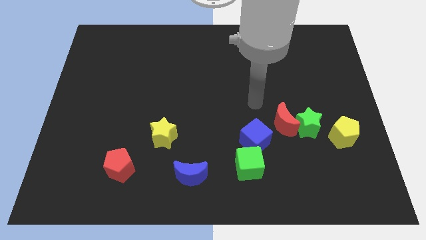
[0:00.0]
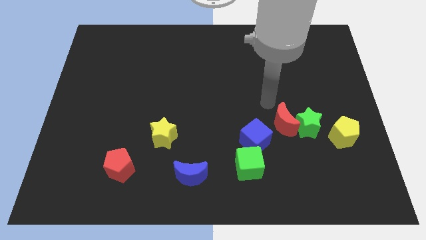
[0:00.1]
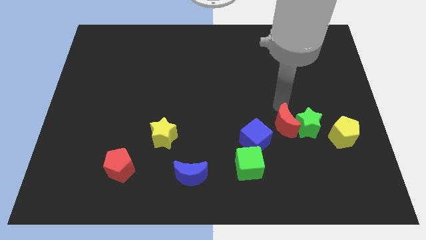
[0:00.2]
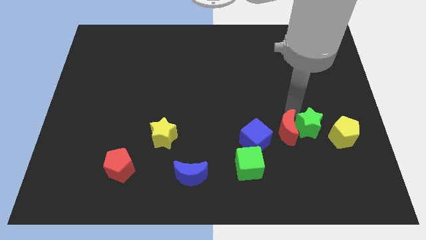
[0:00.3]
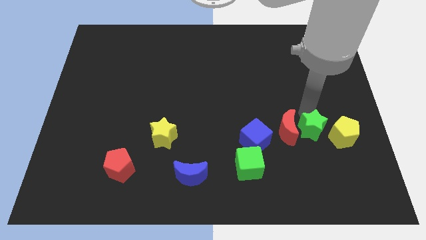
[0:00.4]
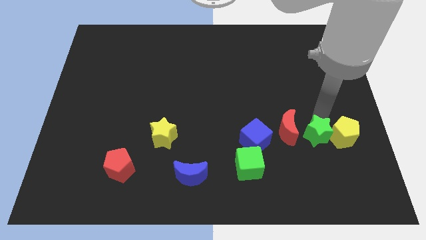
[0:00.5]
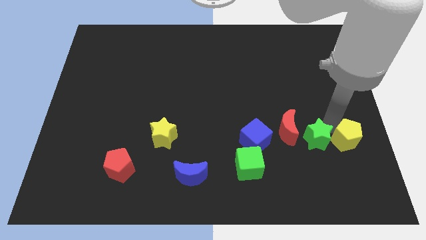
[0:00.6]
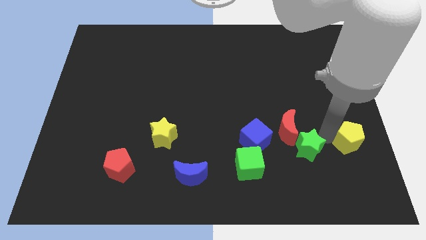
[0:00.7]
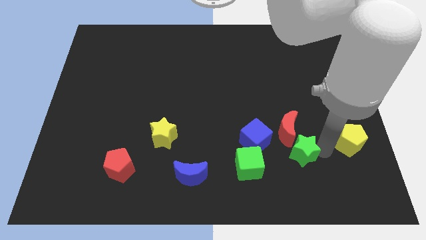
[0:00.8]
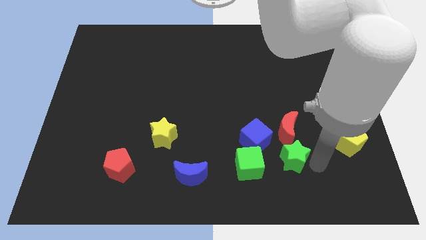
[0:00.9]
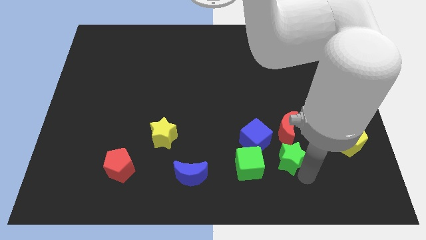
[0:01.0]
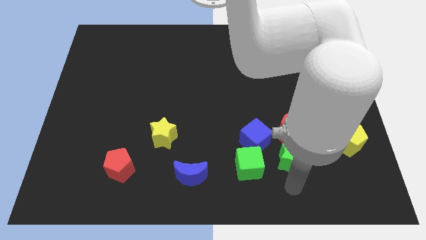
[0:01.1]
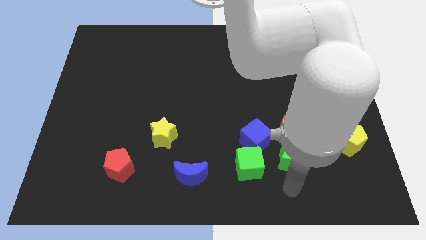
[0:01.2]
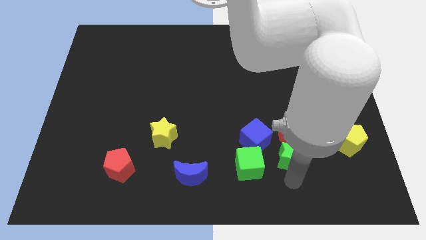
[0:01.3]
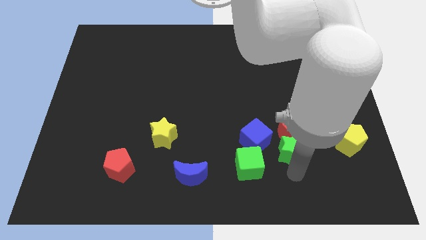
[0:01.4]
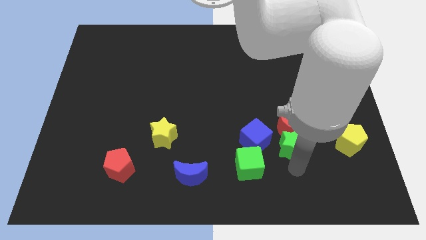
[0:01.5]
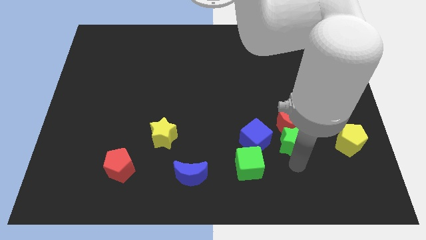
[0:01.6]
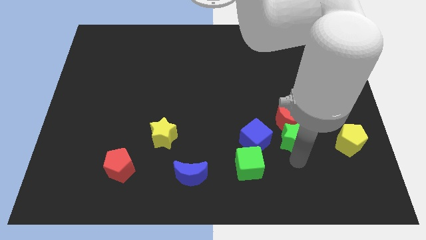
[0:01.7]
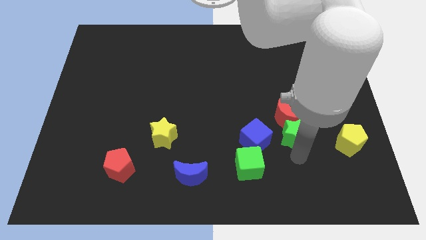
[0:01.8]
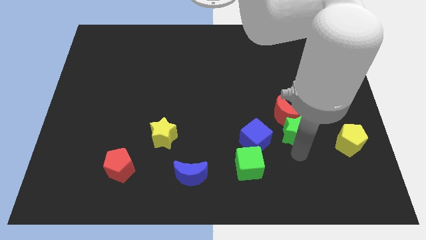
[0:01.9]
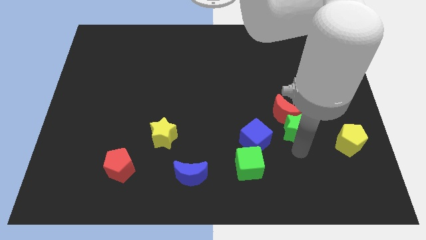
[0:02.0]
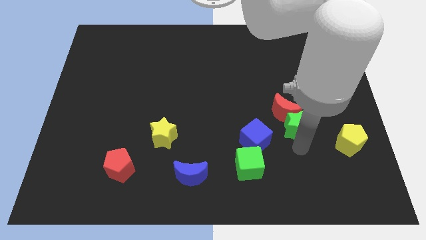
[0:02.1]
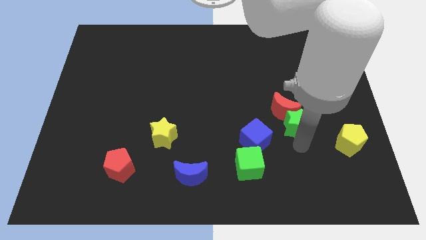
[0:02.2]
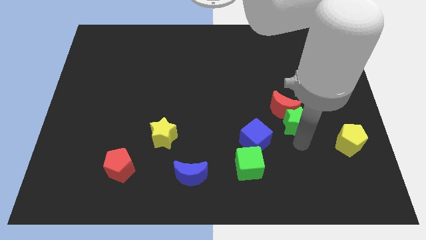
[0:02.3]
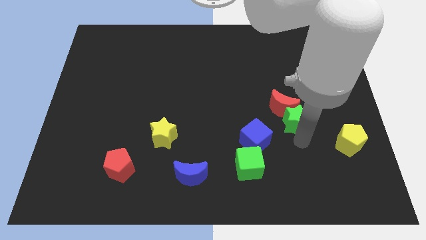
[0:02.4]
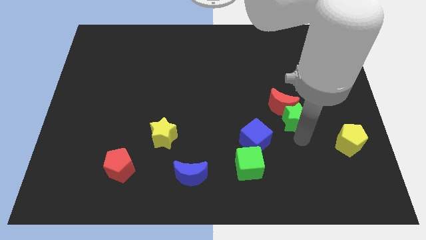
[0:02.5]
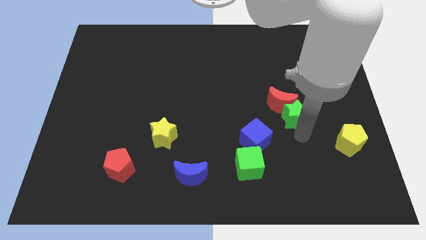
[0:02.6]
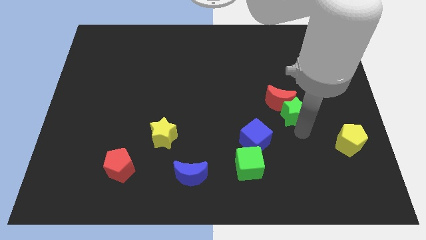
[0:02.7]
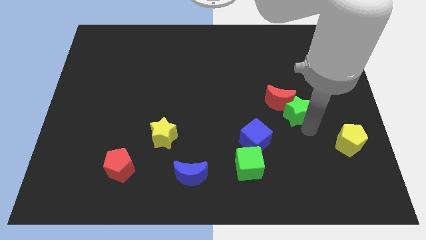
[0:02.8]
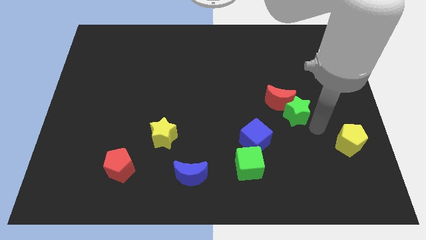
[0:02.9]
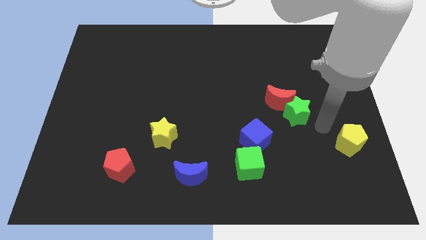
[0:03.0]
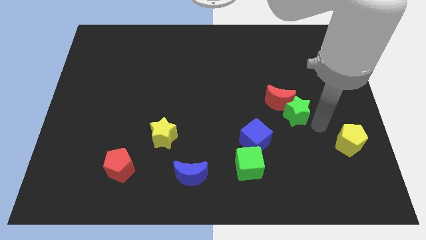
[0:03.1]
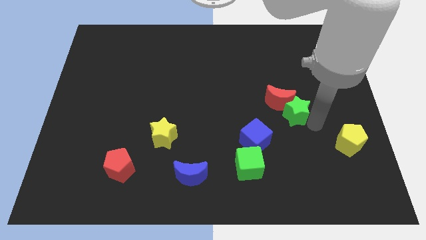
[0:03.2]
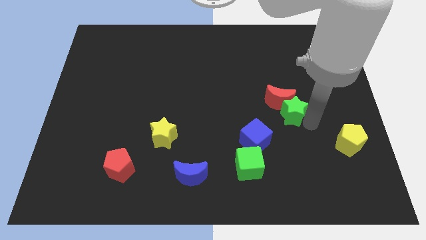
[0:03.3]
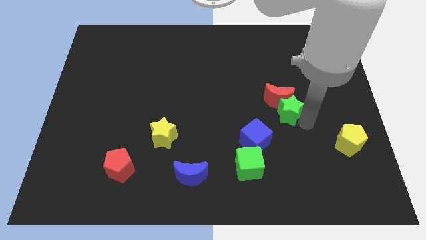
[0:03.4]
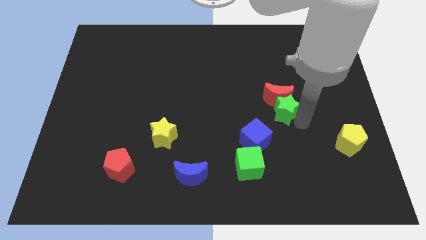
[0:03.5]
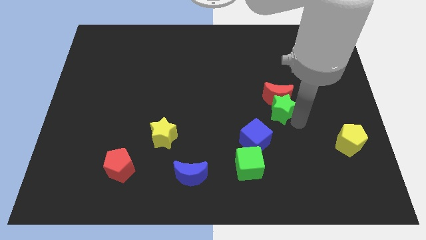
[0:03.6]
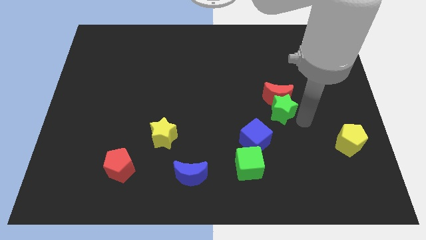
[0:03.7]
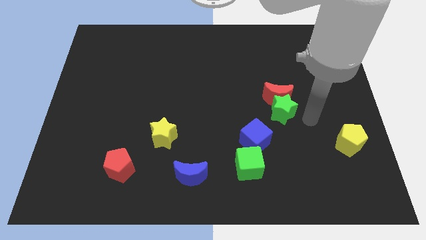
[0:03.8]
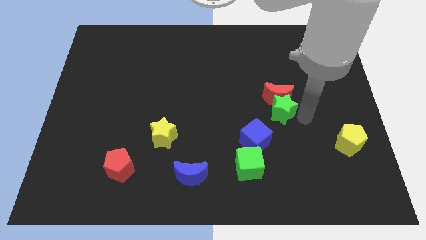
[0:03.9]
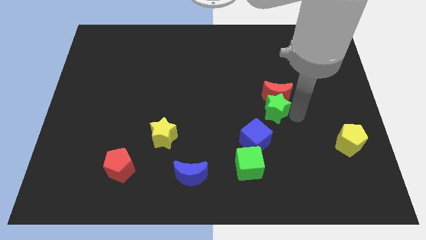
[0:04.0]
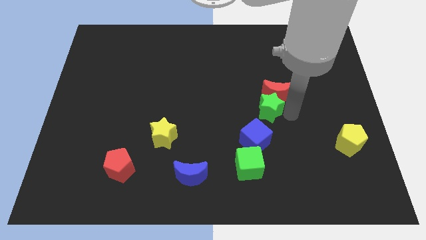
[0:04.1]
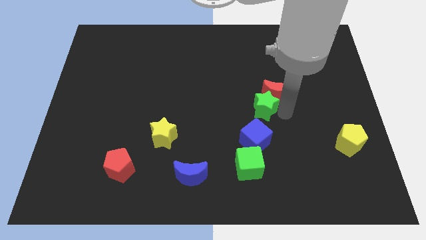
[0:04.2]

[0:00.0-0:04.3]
pull the green star apart from the red moon and yellow pentagon

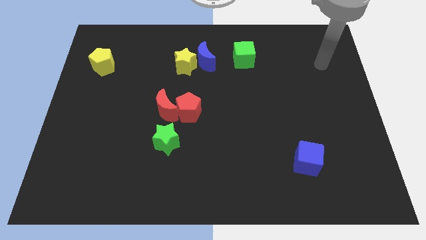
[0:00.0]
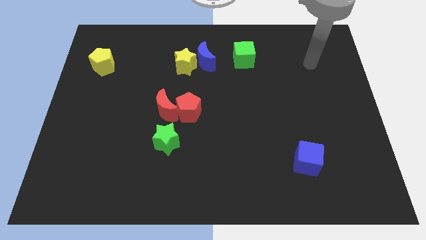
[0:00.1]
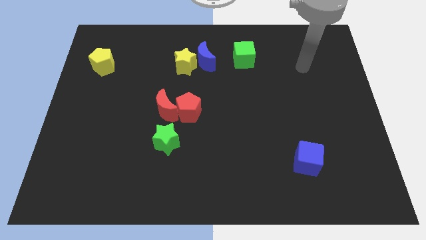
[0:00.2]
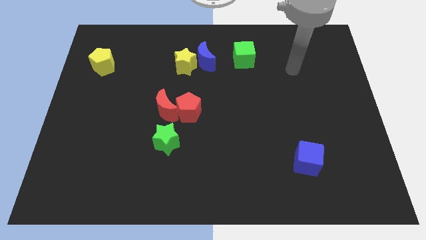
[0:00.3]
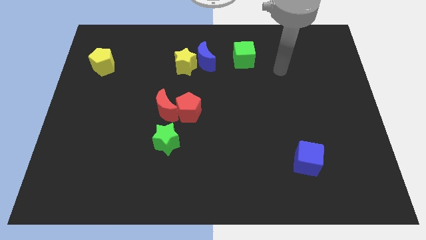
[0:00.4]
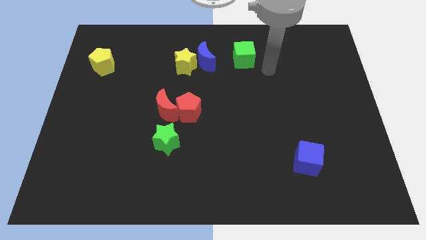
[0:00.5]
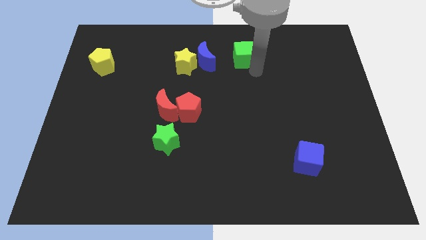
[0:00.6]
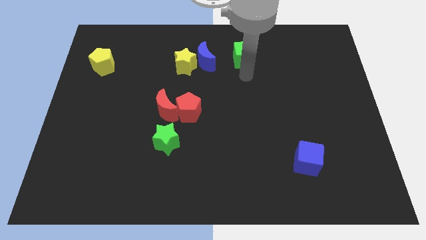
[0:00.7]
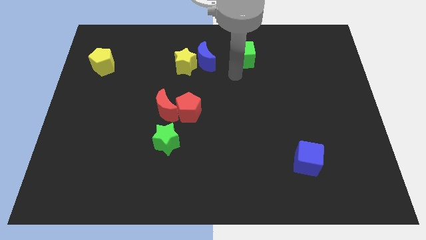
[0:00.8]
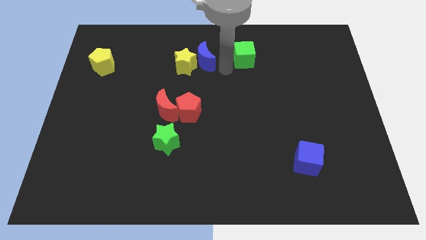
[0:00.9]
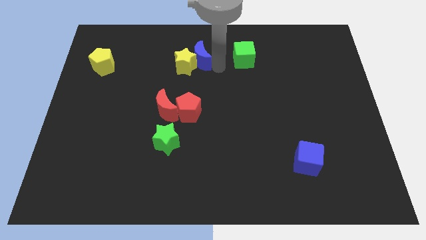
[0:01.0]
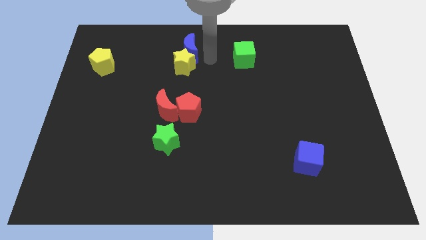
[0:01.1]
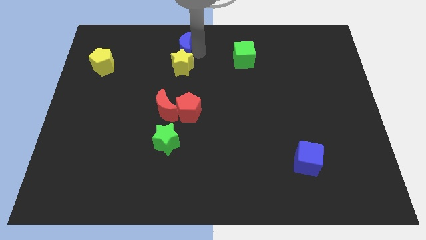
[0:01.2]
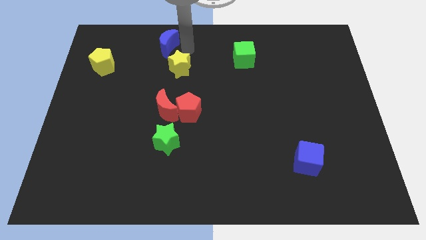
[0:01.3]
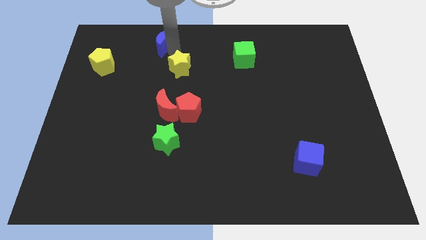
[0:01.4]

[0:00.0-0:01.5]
separate the yellow star from the blue moon

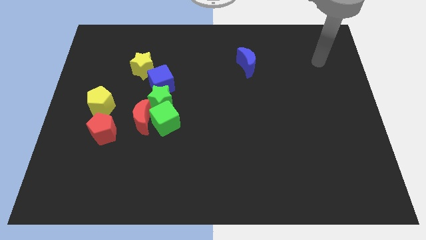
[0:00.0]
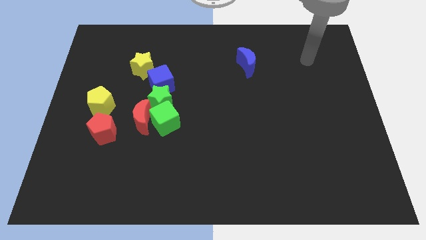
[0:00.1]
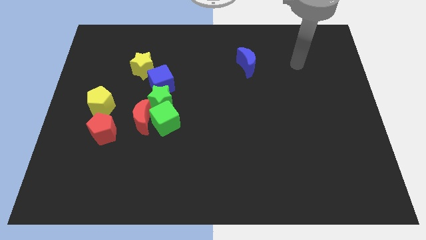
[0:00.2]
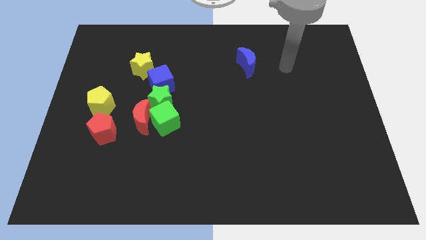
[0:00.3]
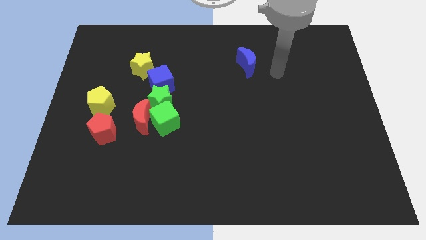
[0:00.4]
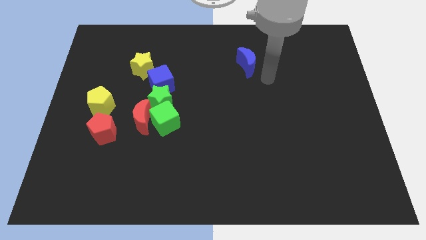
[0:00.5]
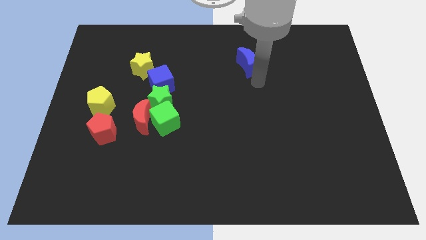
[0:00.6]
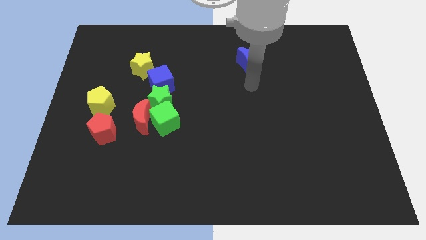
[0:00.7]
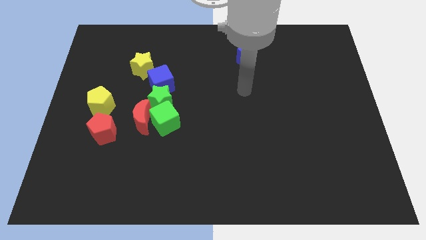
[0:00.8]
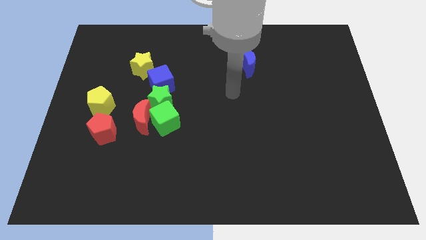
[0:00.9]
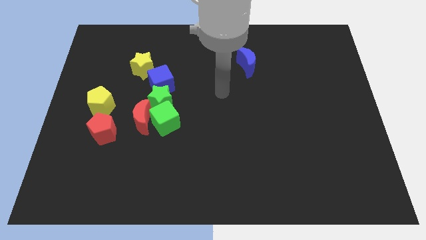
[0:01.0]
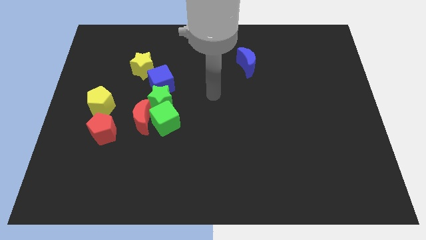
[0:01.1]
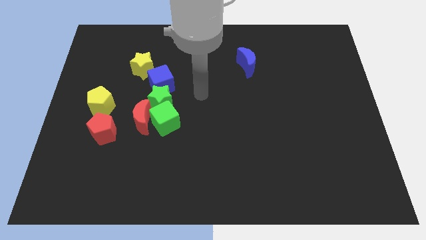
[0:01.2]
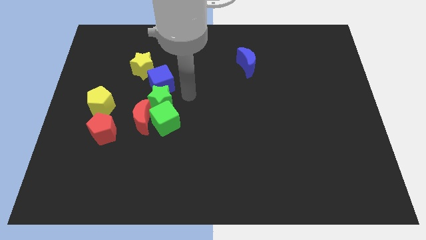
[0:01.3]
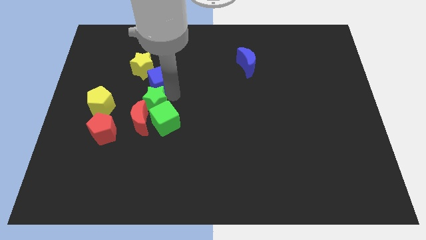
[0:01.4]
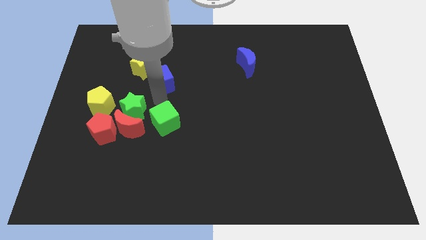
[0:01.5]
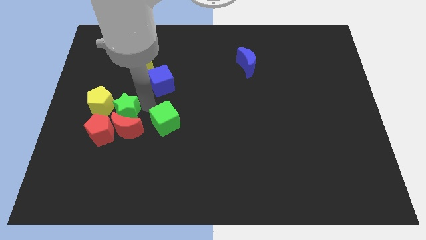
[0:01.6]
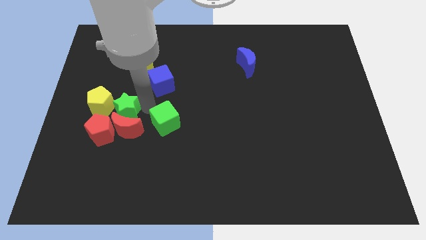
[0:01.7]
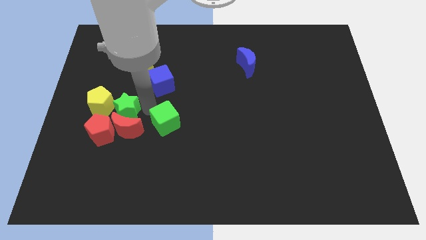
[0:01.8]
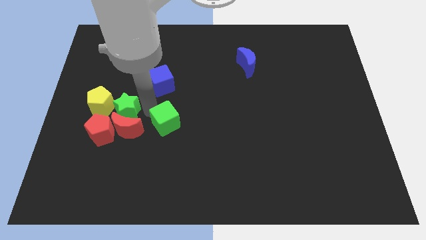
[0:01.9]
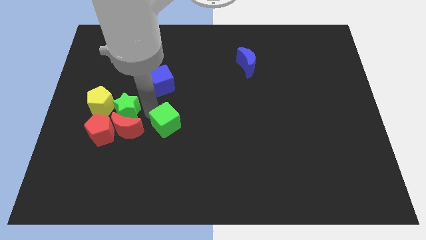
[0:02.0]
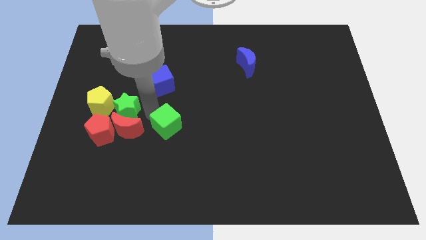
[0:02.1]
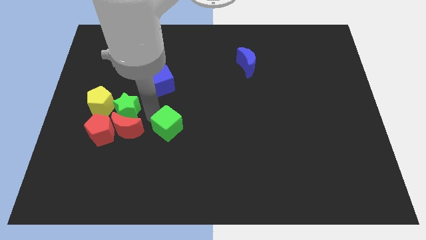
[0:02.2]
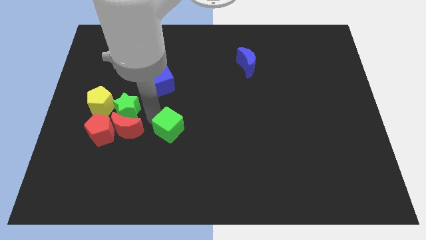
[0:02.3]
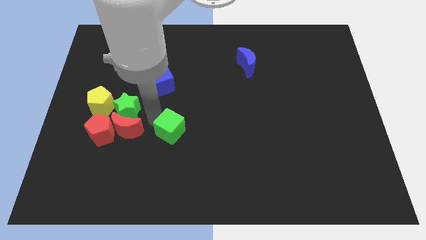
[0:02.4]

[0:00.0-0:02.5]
pull the green cube apart from the red moon and green star

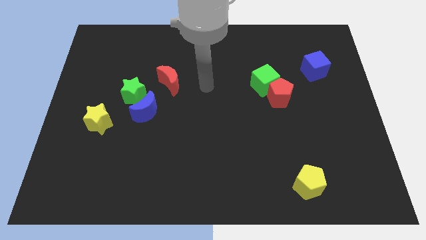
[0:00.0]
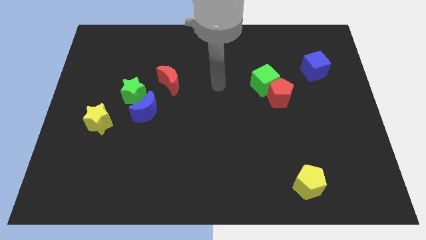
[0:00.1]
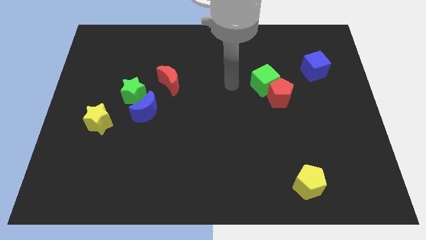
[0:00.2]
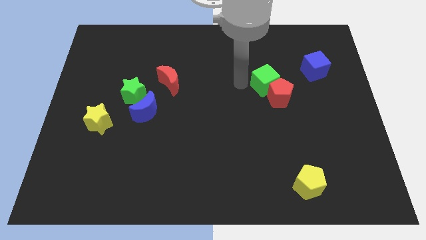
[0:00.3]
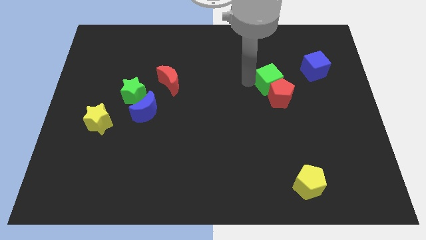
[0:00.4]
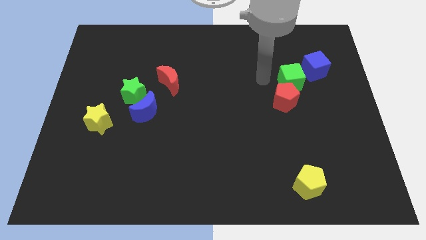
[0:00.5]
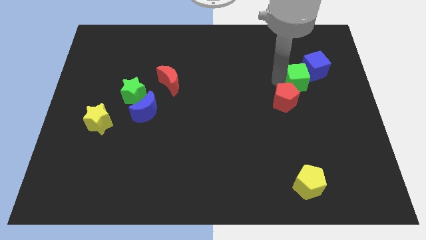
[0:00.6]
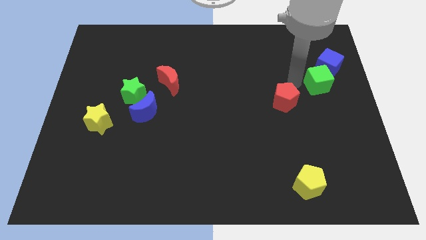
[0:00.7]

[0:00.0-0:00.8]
move the red pentagon away from the green cube

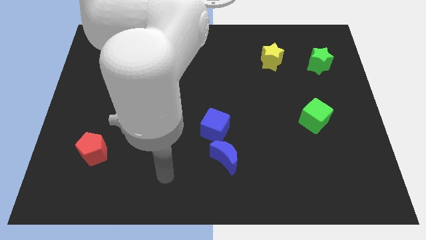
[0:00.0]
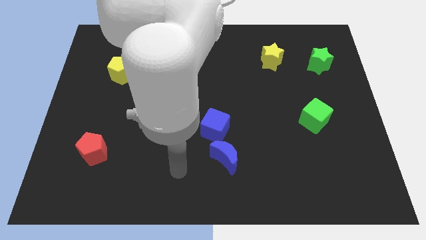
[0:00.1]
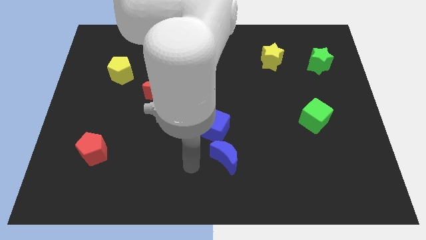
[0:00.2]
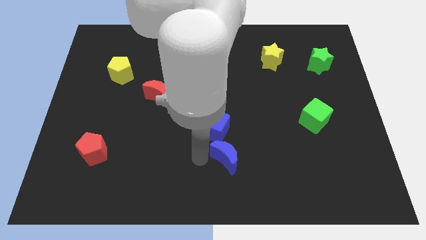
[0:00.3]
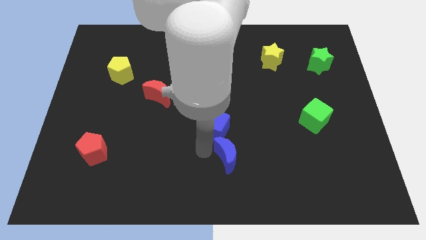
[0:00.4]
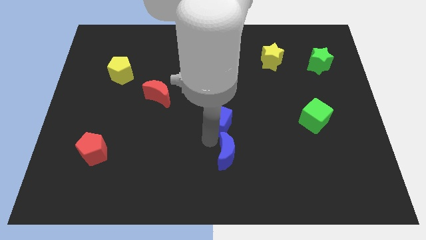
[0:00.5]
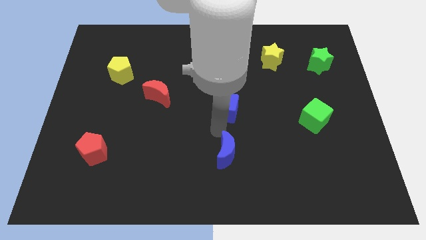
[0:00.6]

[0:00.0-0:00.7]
pull the blue moon apart from the blue cube
